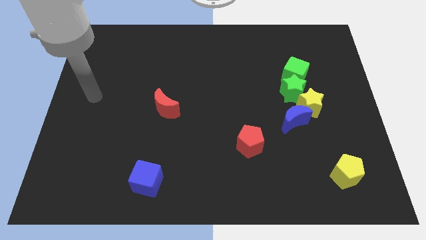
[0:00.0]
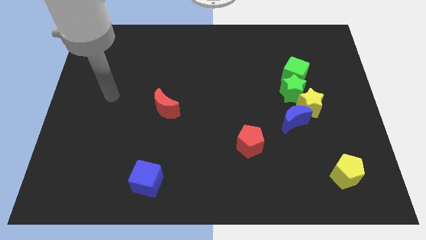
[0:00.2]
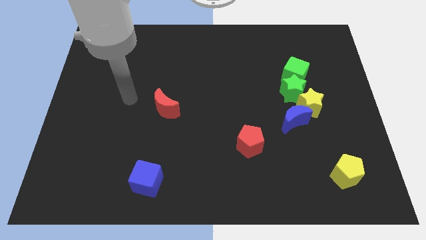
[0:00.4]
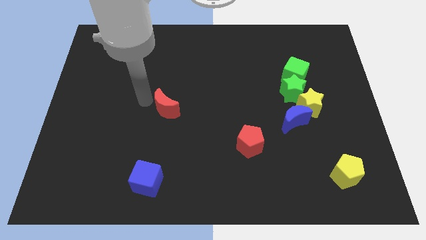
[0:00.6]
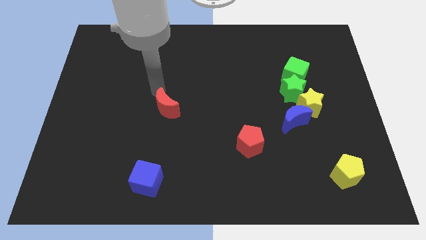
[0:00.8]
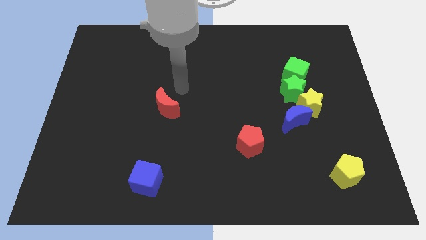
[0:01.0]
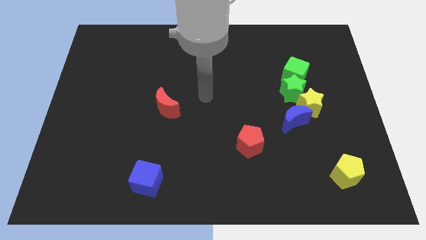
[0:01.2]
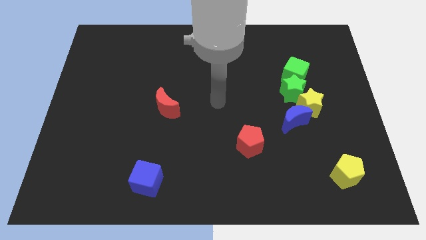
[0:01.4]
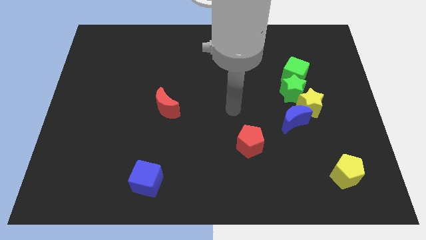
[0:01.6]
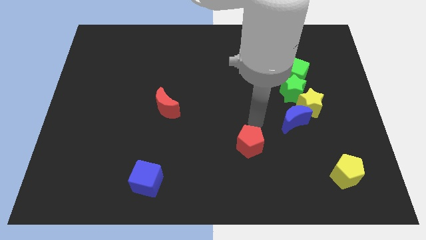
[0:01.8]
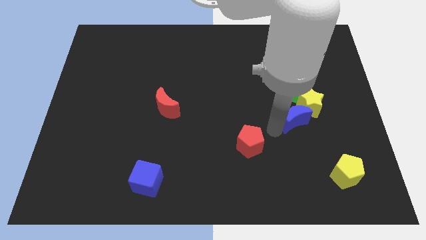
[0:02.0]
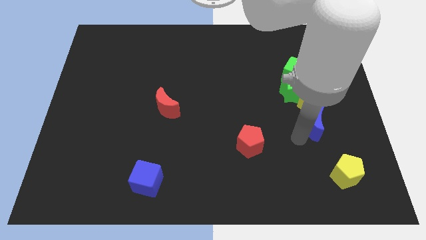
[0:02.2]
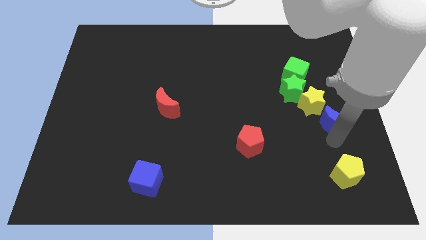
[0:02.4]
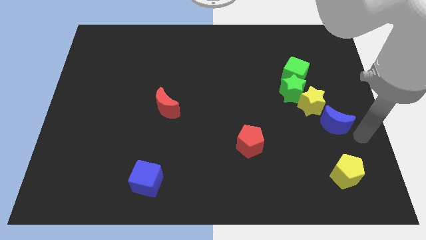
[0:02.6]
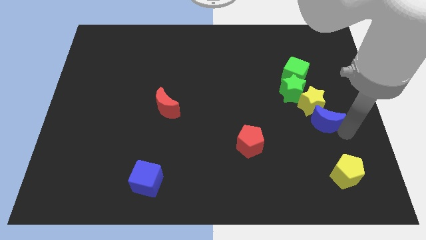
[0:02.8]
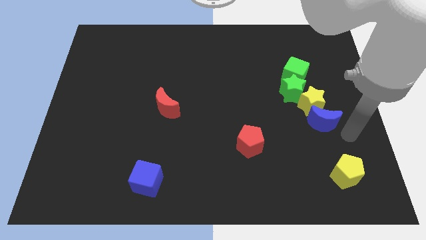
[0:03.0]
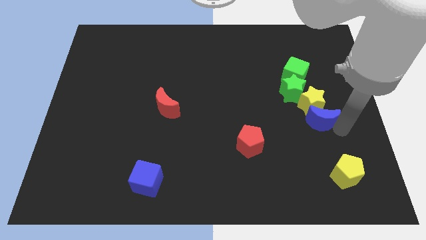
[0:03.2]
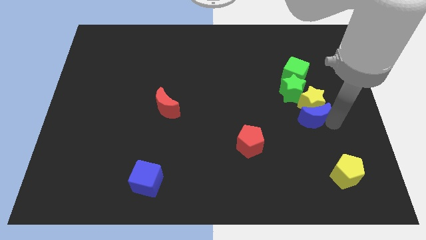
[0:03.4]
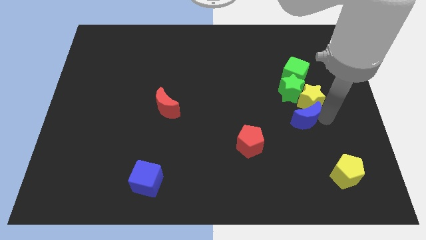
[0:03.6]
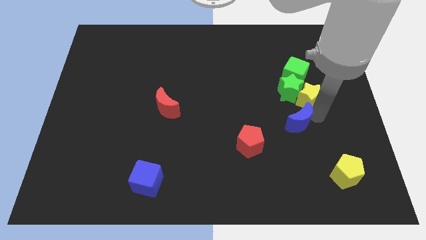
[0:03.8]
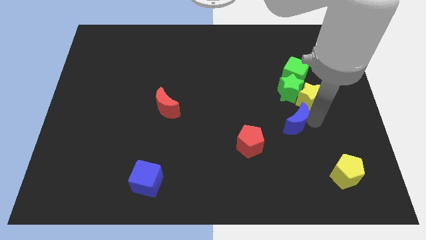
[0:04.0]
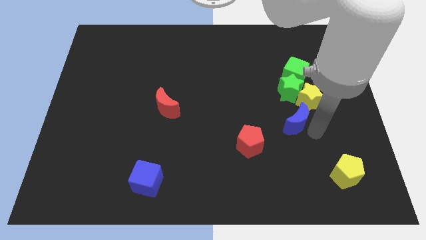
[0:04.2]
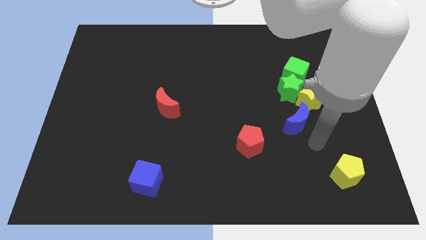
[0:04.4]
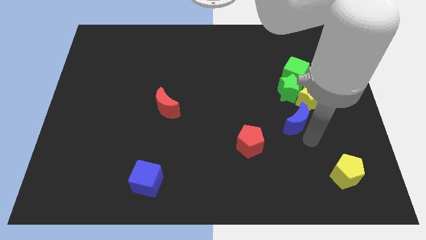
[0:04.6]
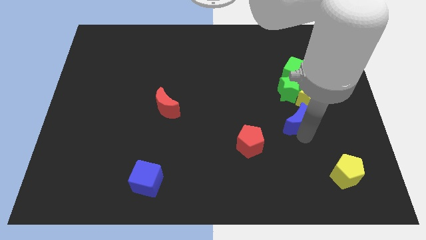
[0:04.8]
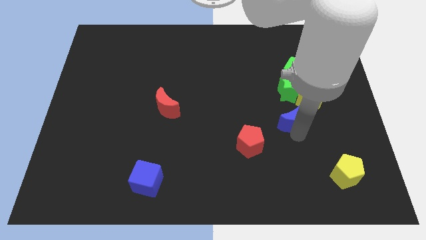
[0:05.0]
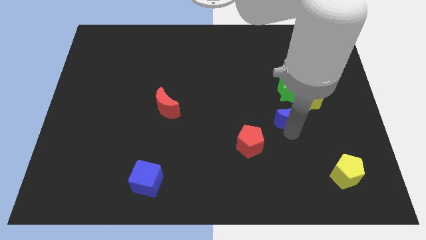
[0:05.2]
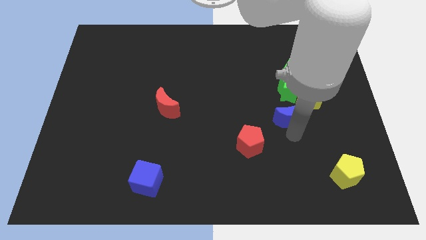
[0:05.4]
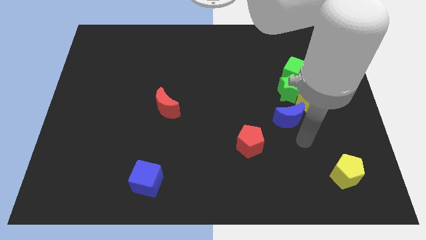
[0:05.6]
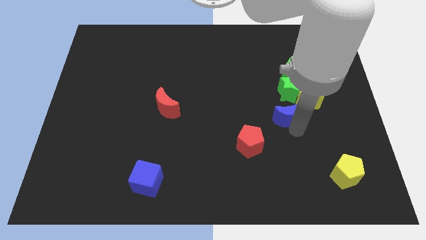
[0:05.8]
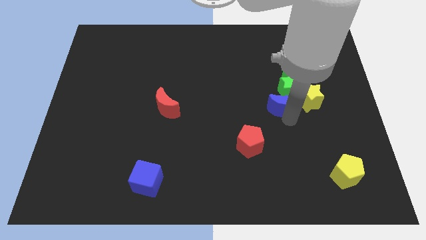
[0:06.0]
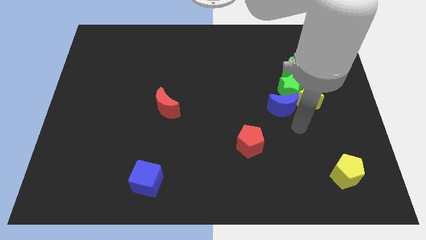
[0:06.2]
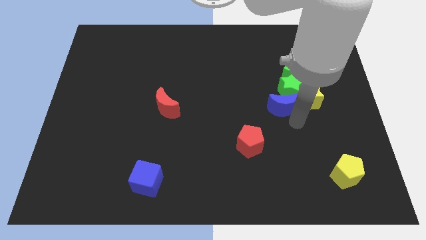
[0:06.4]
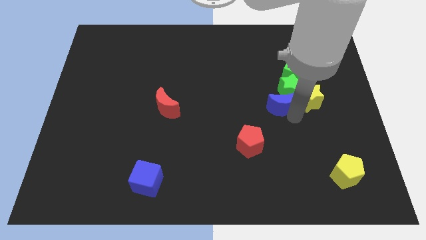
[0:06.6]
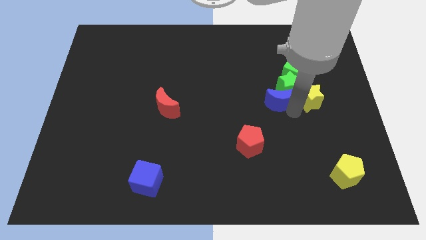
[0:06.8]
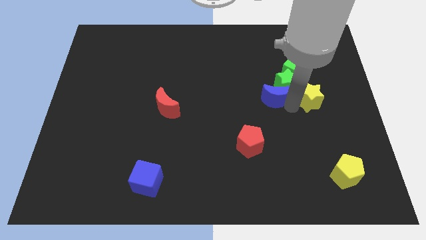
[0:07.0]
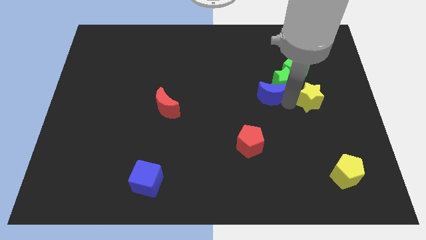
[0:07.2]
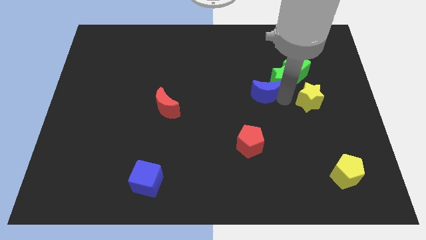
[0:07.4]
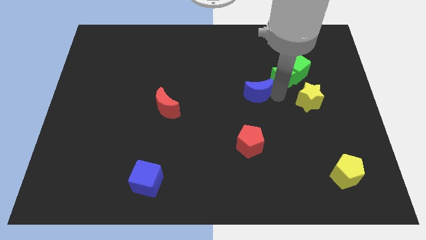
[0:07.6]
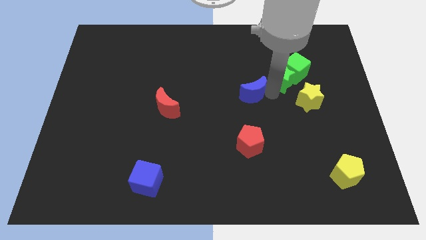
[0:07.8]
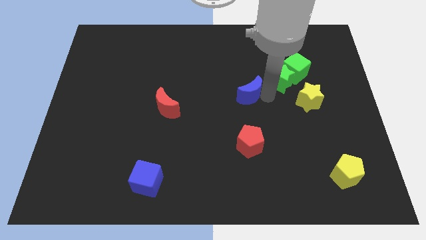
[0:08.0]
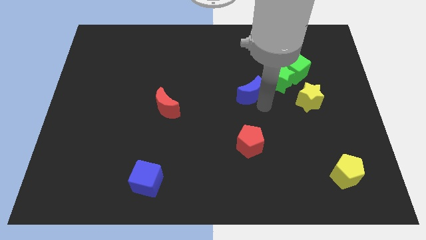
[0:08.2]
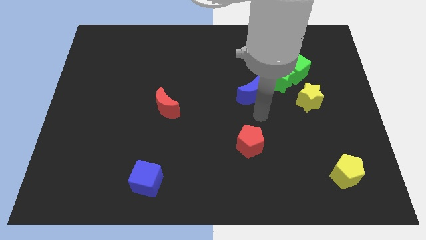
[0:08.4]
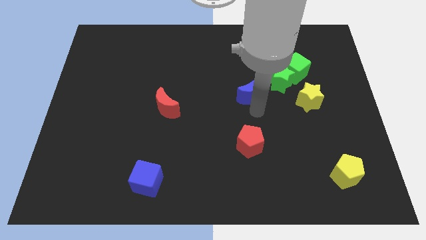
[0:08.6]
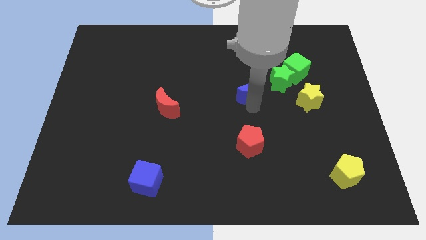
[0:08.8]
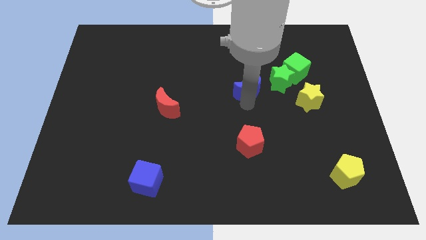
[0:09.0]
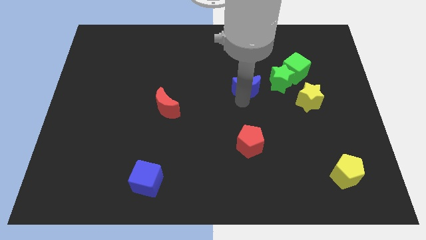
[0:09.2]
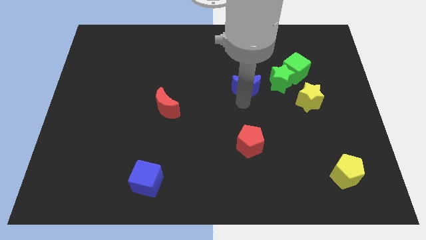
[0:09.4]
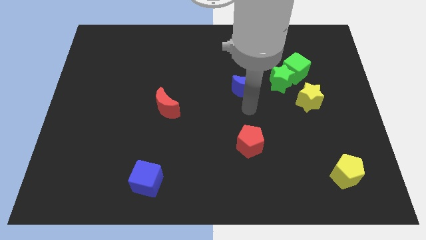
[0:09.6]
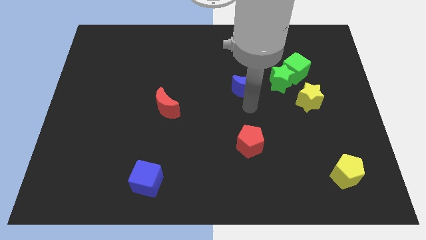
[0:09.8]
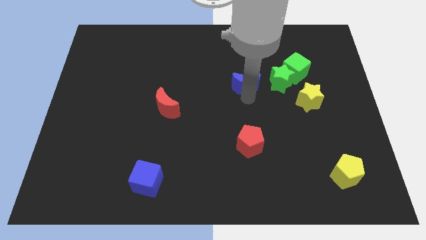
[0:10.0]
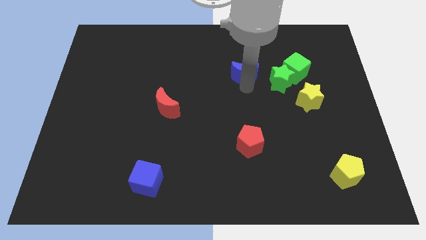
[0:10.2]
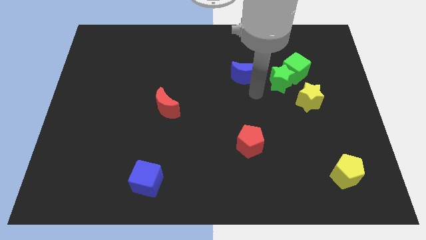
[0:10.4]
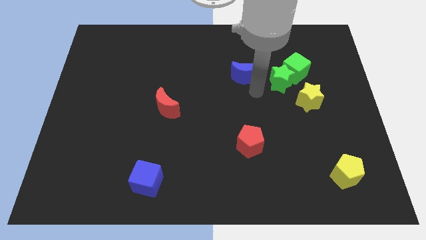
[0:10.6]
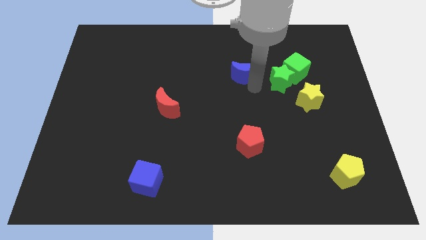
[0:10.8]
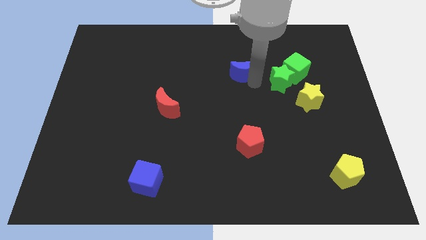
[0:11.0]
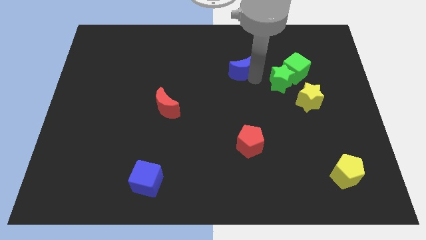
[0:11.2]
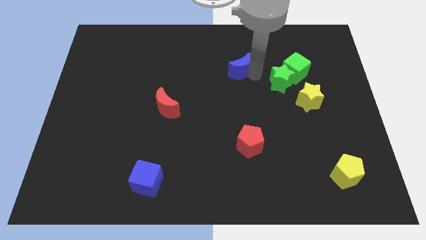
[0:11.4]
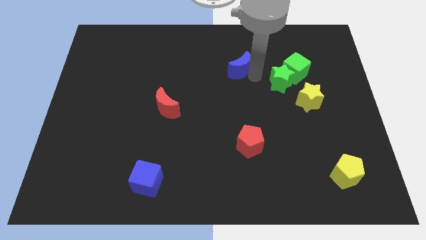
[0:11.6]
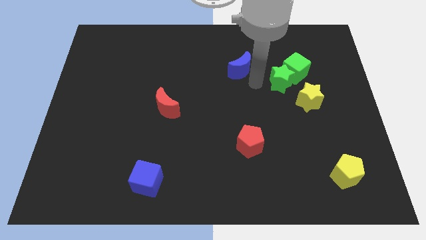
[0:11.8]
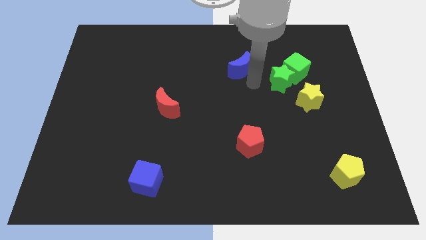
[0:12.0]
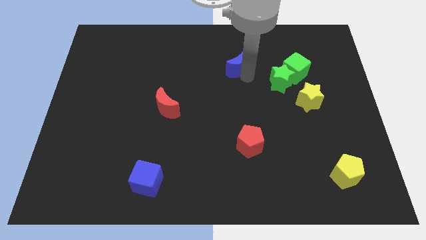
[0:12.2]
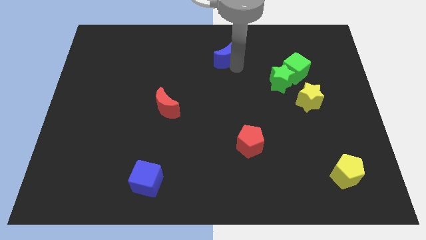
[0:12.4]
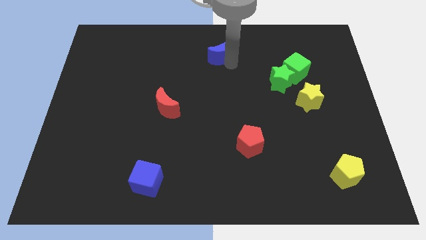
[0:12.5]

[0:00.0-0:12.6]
put the blue moon to the top side
